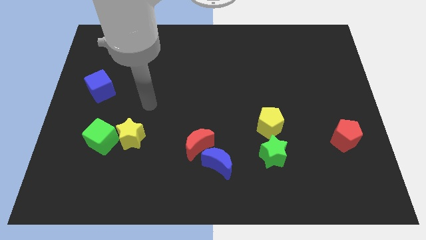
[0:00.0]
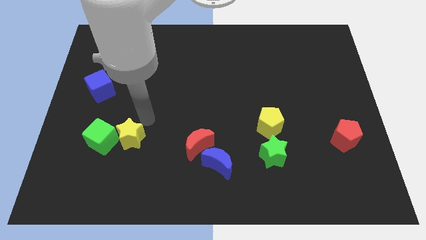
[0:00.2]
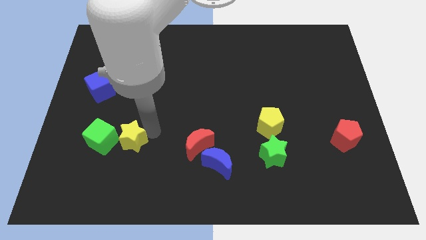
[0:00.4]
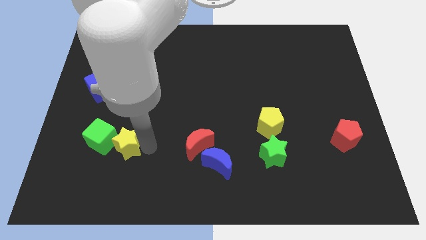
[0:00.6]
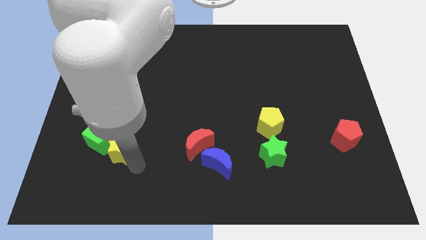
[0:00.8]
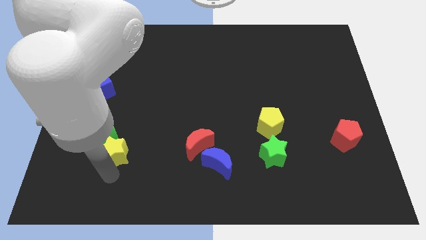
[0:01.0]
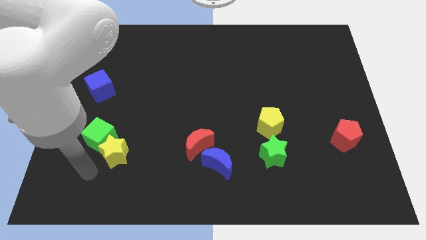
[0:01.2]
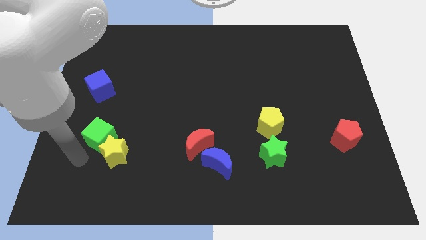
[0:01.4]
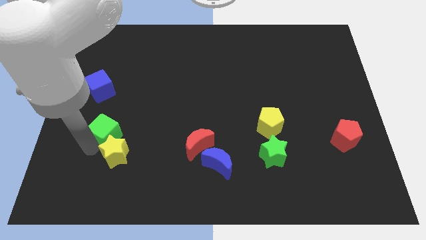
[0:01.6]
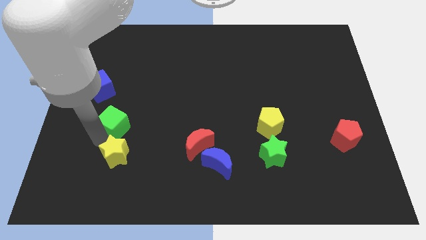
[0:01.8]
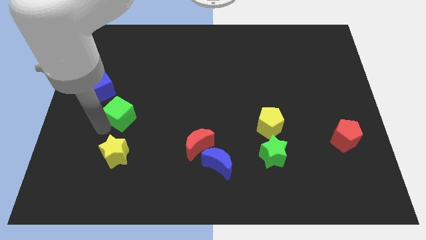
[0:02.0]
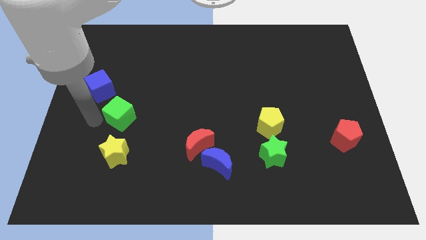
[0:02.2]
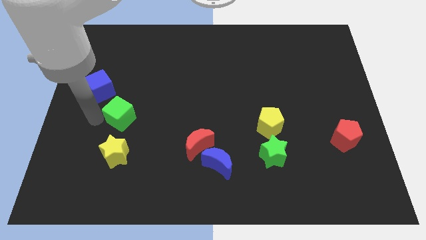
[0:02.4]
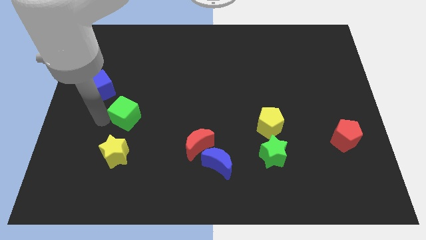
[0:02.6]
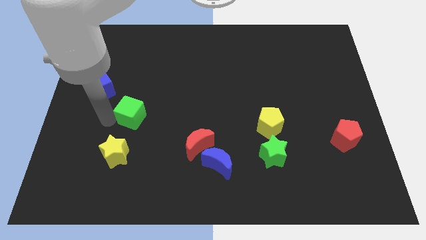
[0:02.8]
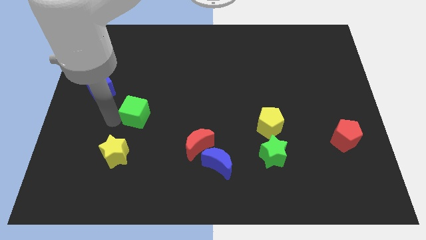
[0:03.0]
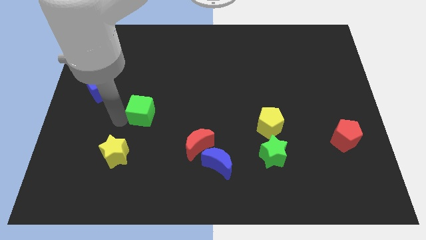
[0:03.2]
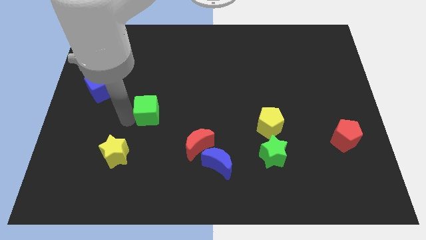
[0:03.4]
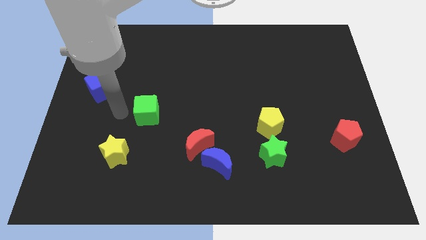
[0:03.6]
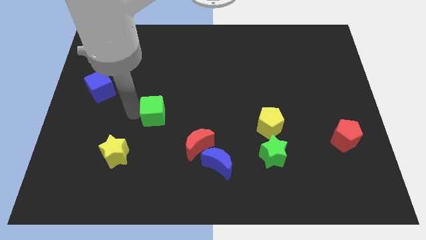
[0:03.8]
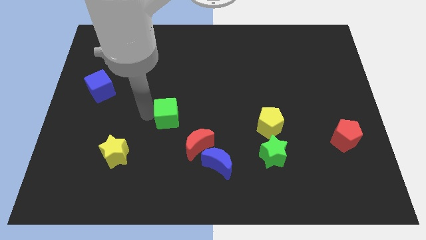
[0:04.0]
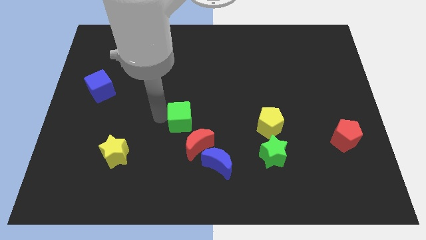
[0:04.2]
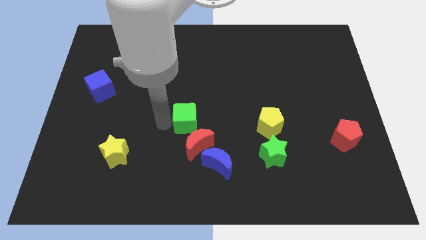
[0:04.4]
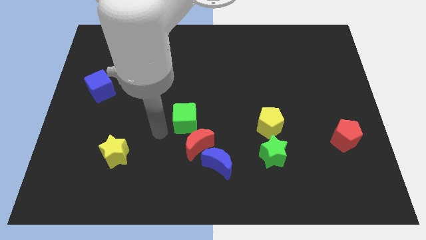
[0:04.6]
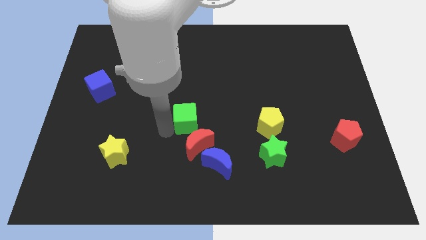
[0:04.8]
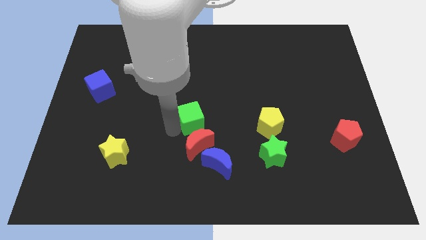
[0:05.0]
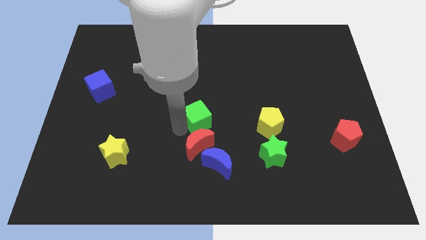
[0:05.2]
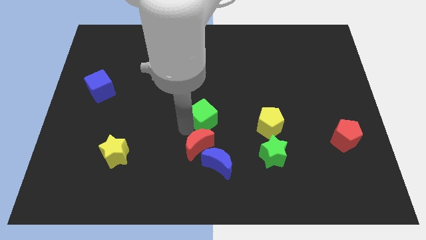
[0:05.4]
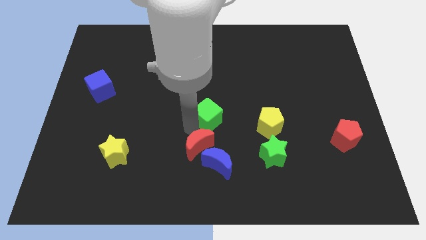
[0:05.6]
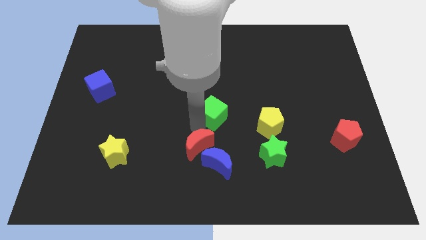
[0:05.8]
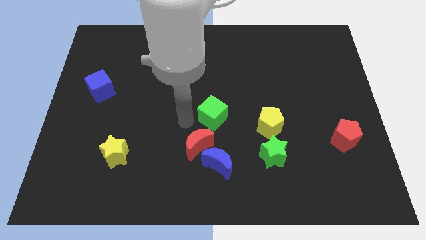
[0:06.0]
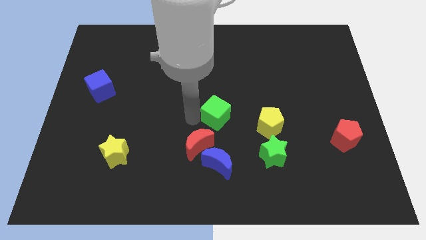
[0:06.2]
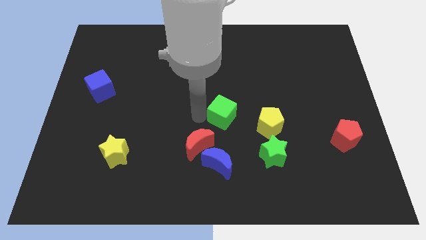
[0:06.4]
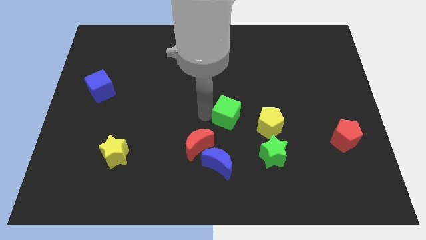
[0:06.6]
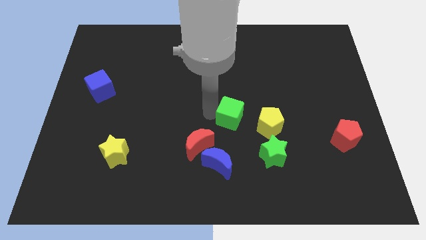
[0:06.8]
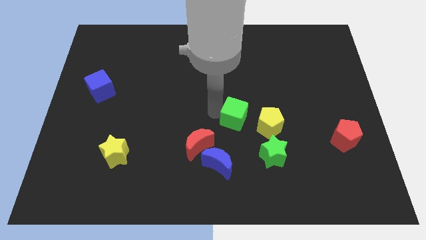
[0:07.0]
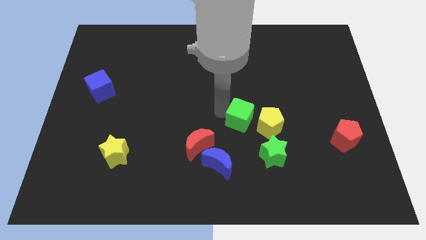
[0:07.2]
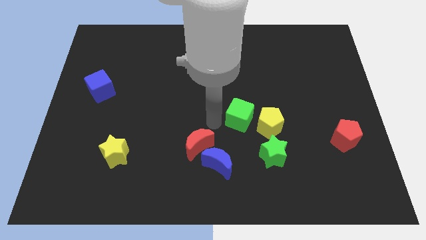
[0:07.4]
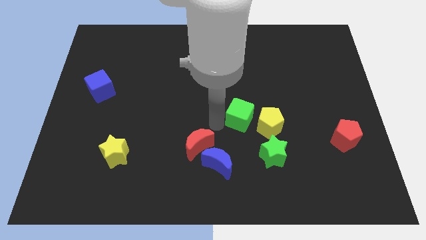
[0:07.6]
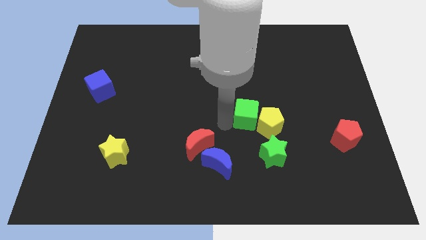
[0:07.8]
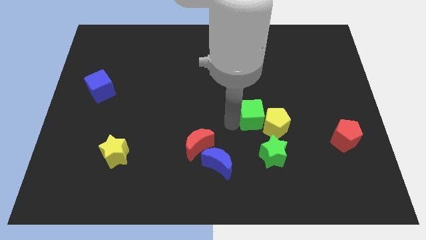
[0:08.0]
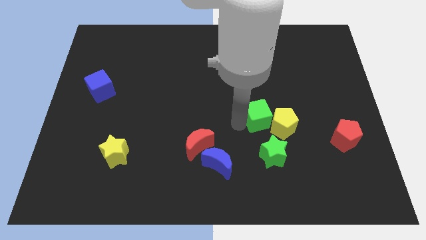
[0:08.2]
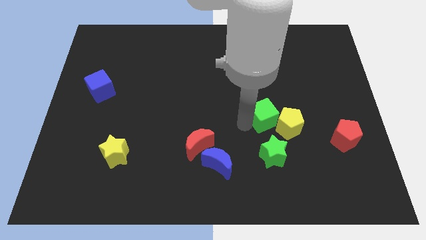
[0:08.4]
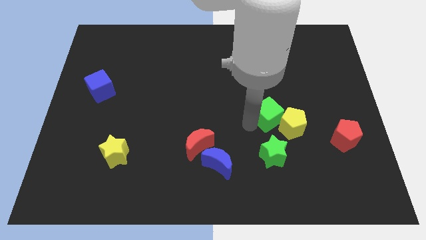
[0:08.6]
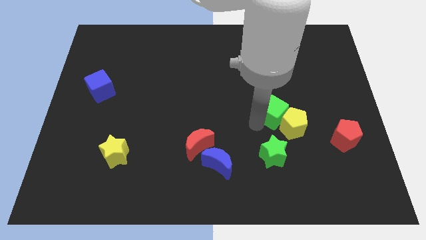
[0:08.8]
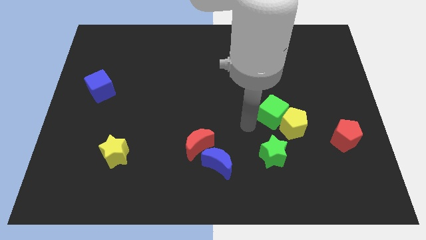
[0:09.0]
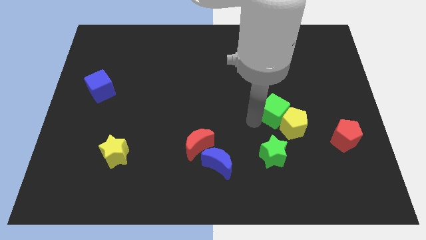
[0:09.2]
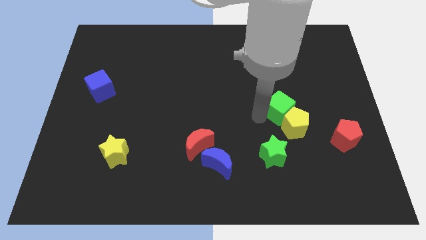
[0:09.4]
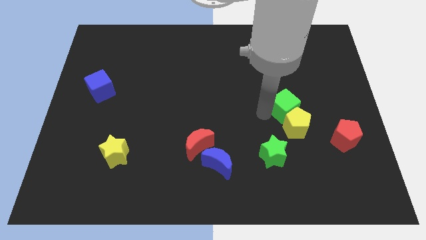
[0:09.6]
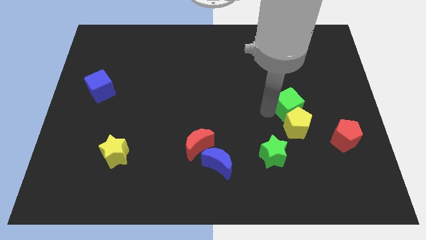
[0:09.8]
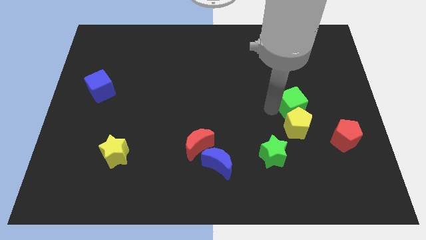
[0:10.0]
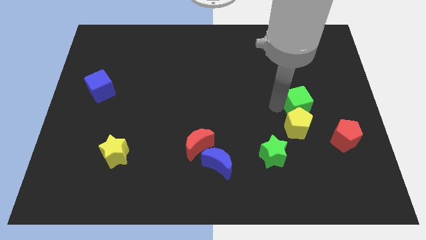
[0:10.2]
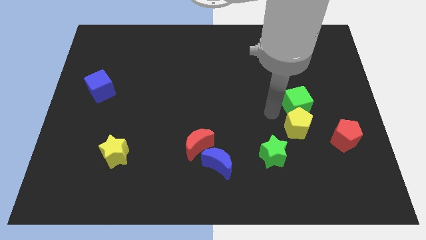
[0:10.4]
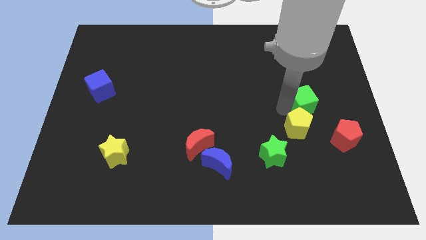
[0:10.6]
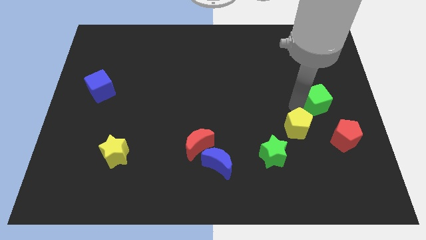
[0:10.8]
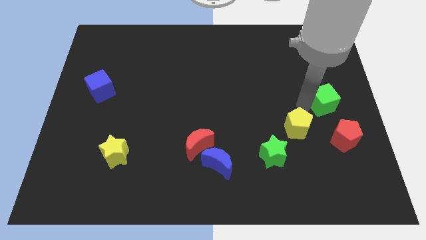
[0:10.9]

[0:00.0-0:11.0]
move the green cube to the right side

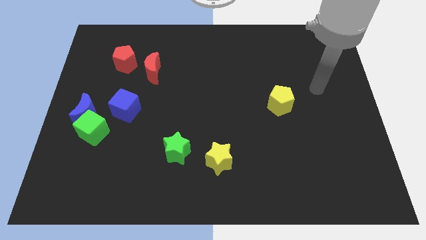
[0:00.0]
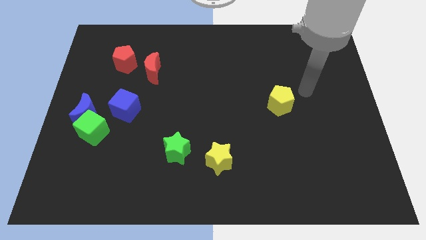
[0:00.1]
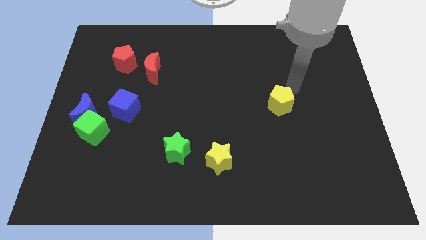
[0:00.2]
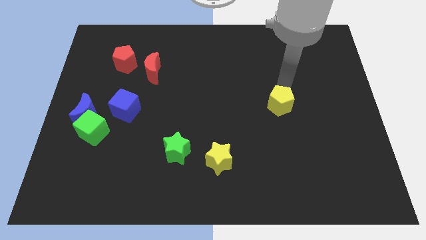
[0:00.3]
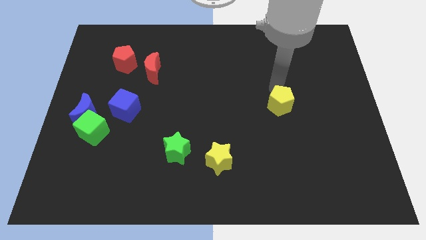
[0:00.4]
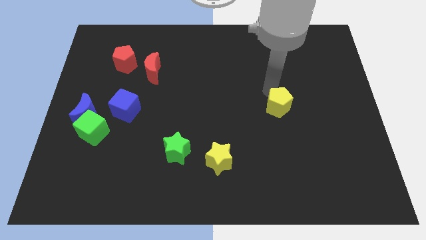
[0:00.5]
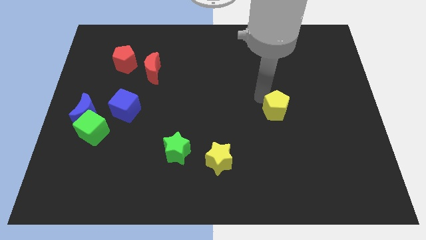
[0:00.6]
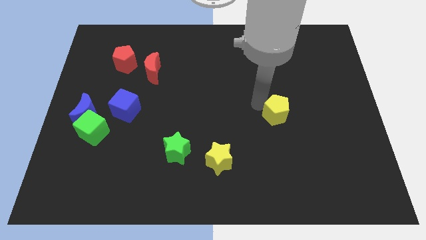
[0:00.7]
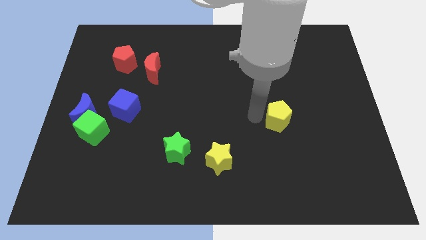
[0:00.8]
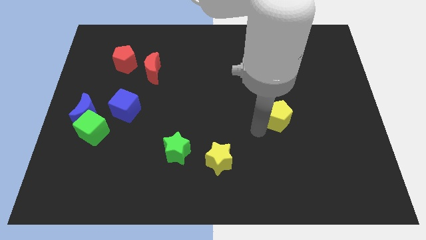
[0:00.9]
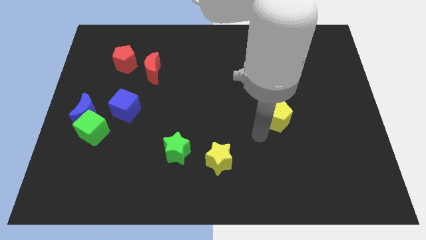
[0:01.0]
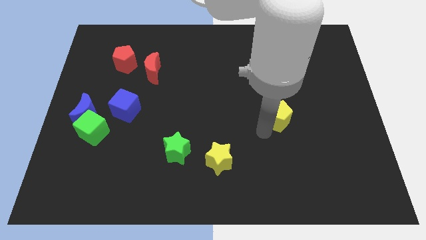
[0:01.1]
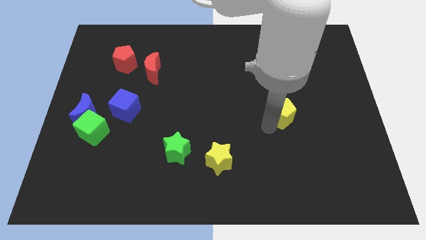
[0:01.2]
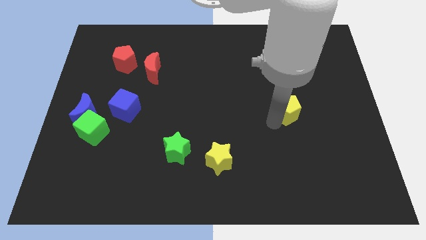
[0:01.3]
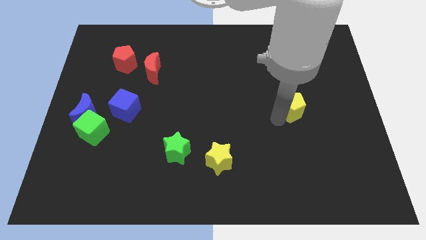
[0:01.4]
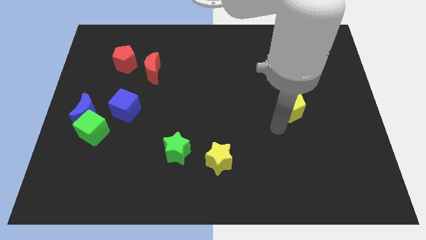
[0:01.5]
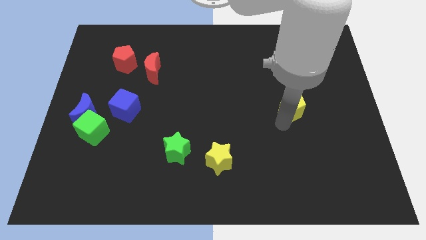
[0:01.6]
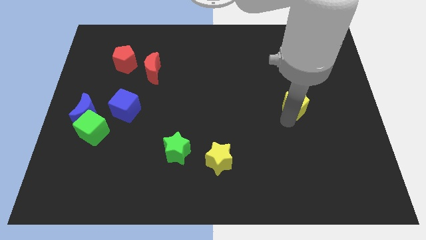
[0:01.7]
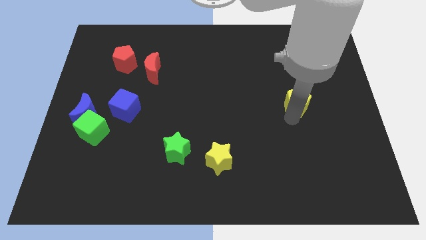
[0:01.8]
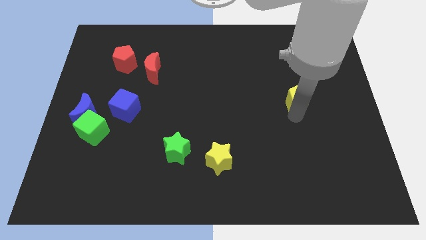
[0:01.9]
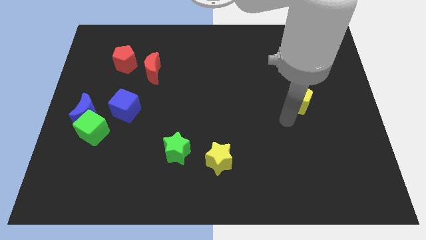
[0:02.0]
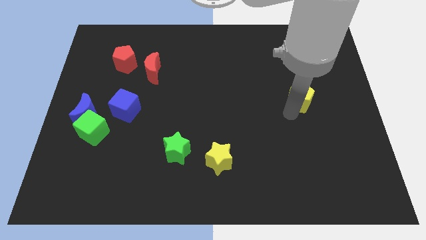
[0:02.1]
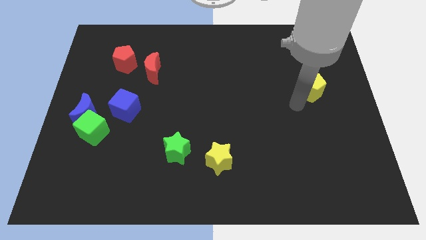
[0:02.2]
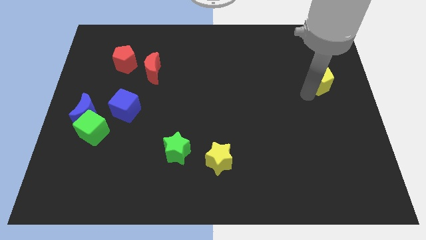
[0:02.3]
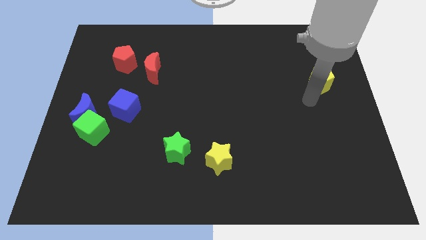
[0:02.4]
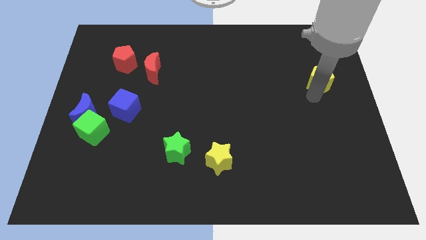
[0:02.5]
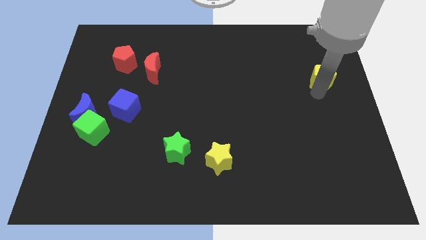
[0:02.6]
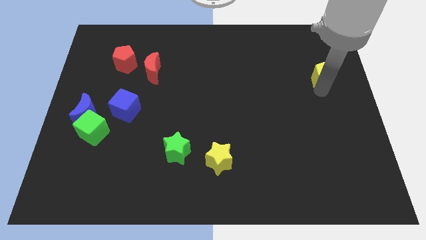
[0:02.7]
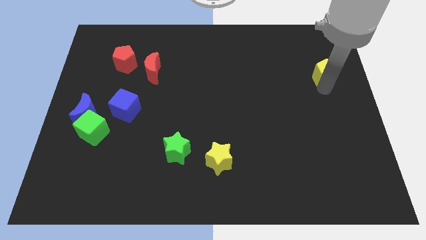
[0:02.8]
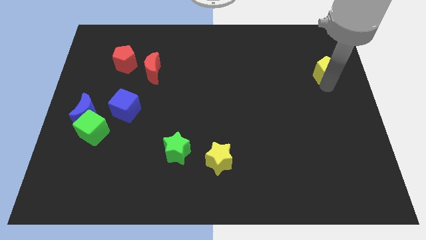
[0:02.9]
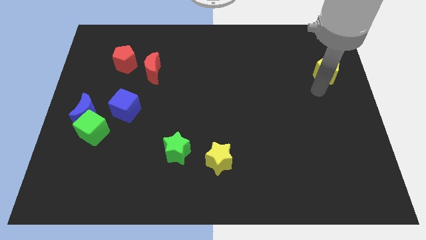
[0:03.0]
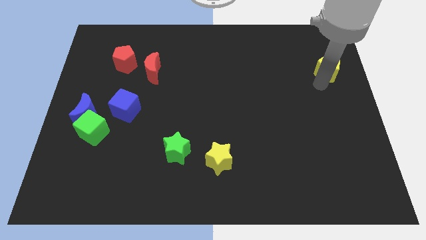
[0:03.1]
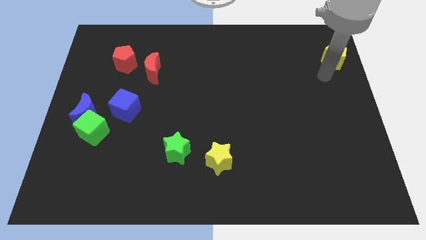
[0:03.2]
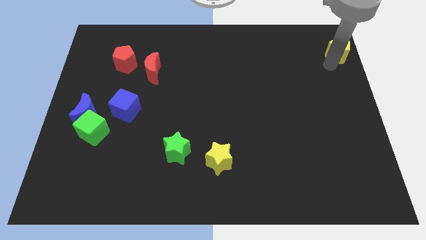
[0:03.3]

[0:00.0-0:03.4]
push the yellow pentagon to the top right
